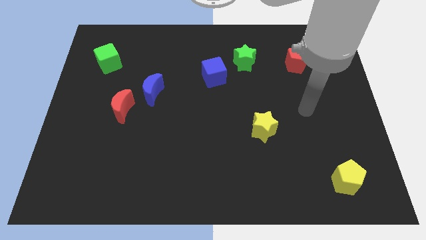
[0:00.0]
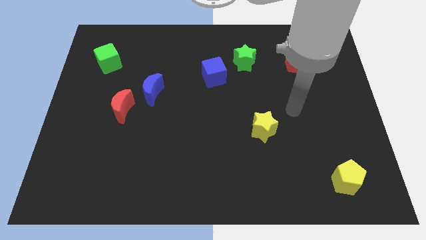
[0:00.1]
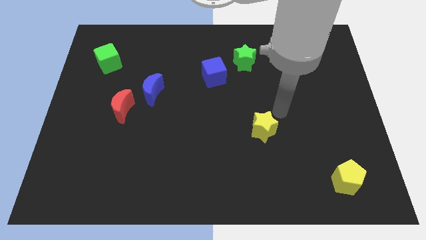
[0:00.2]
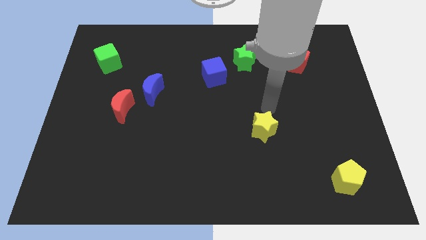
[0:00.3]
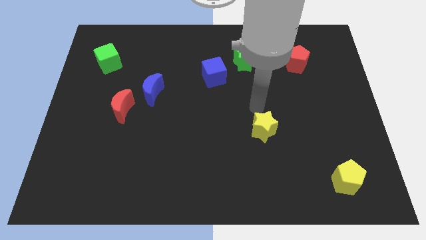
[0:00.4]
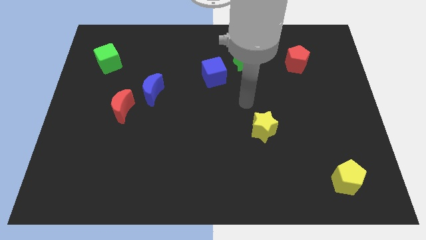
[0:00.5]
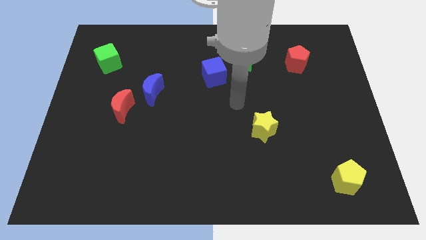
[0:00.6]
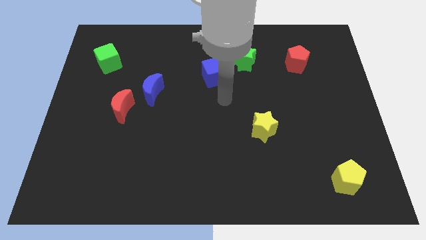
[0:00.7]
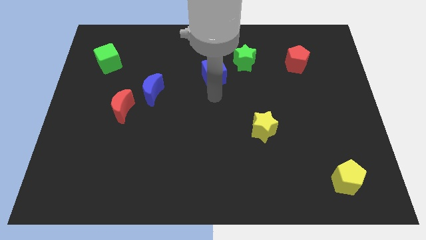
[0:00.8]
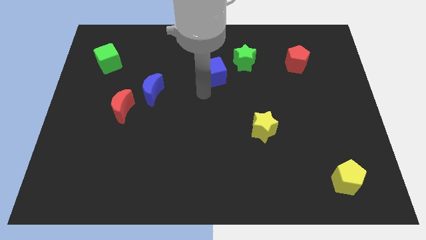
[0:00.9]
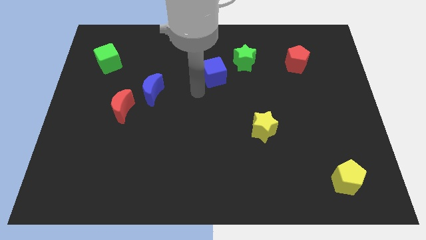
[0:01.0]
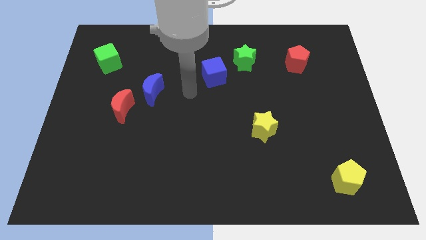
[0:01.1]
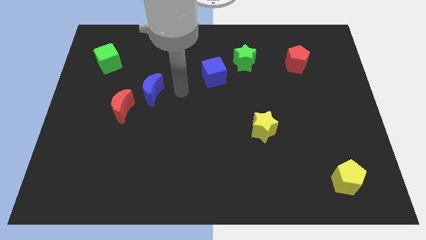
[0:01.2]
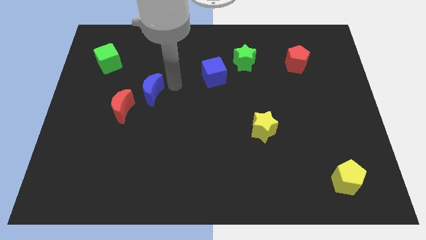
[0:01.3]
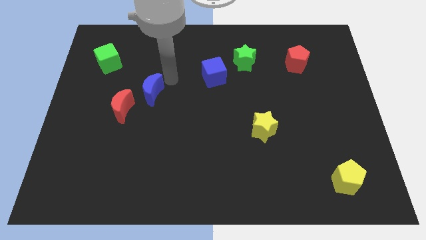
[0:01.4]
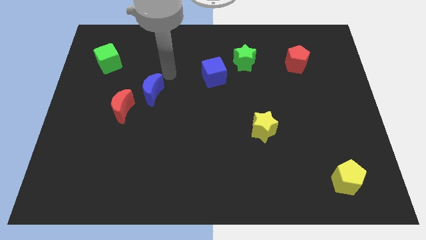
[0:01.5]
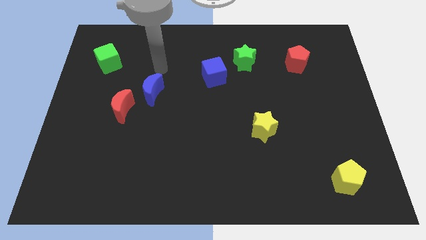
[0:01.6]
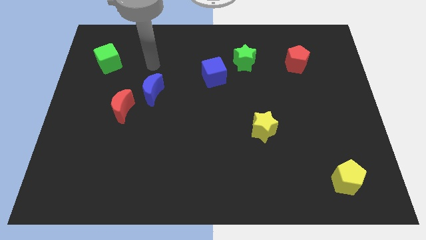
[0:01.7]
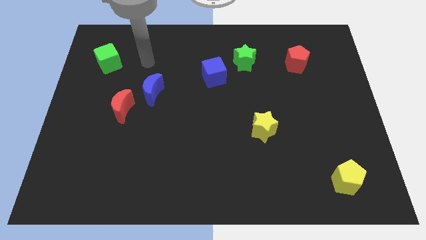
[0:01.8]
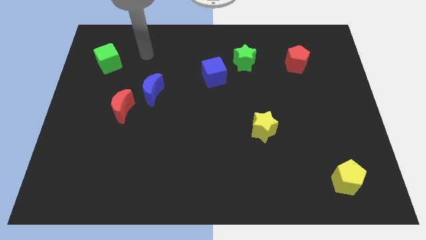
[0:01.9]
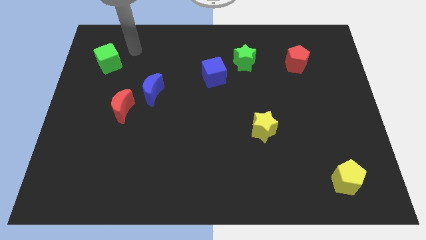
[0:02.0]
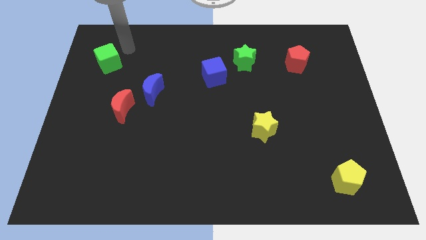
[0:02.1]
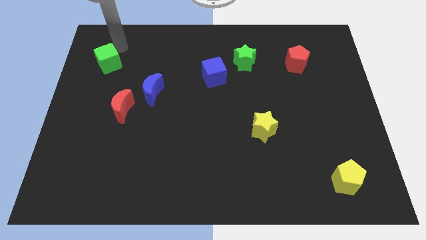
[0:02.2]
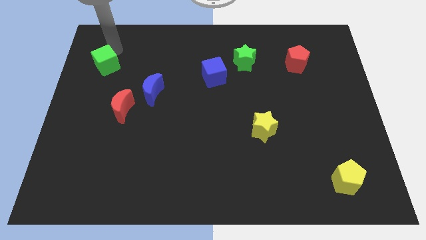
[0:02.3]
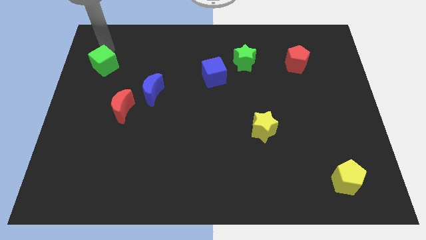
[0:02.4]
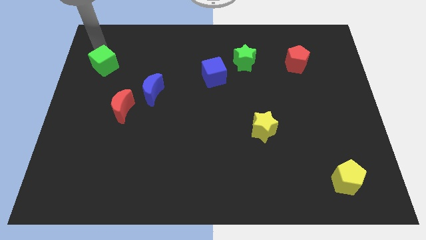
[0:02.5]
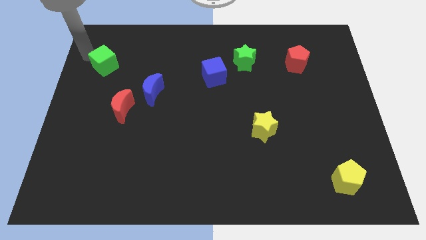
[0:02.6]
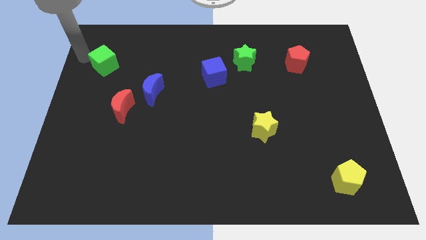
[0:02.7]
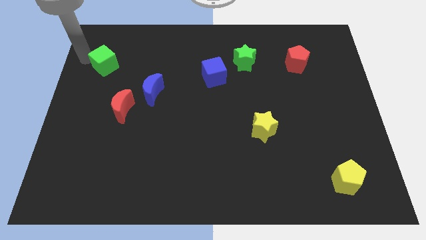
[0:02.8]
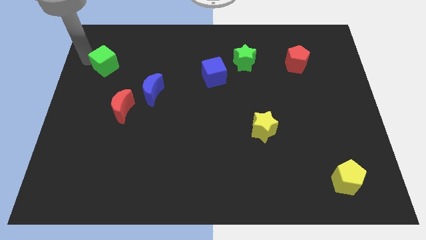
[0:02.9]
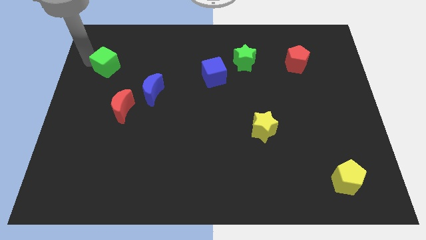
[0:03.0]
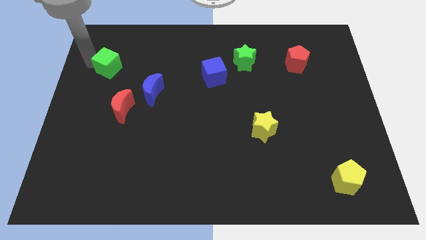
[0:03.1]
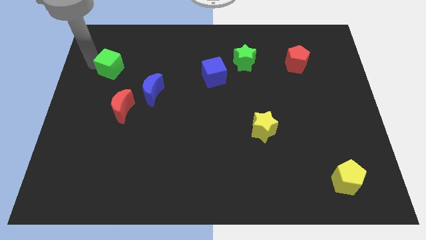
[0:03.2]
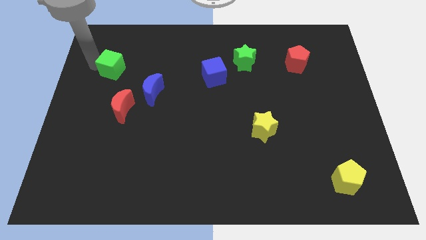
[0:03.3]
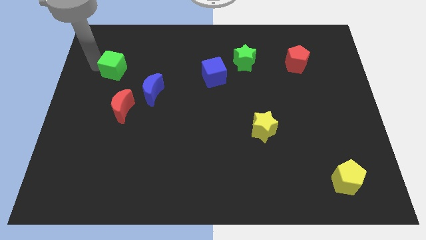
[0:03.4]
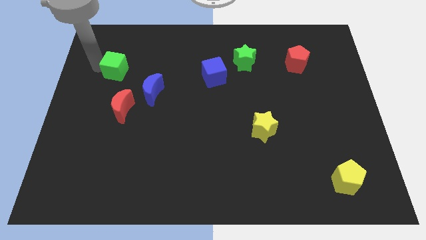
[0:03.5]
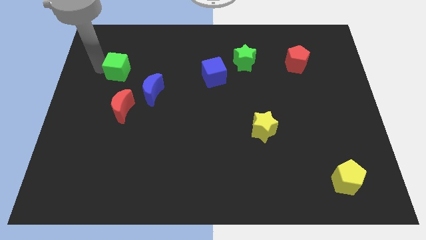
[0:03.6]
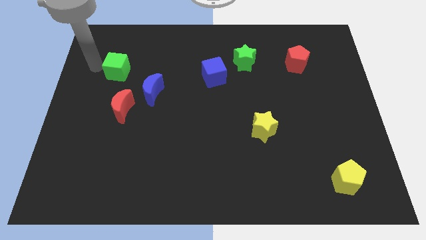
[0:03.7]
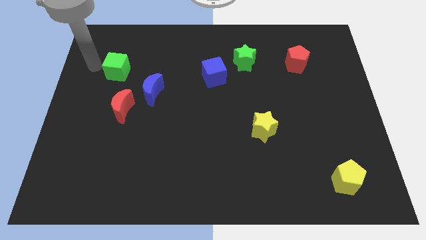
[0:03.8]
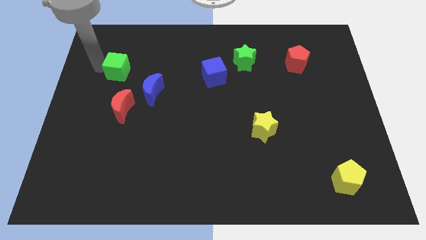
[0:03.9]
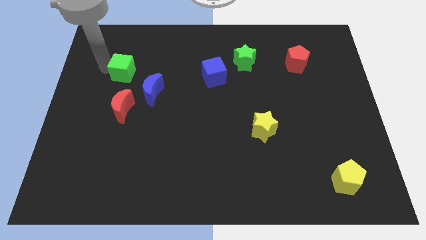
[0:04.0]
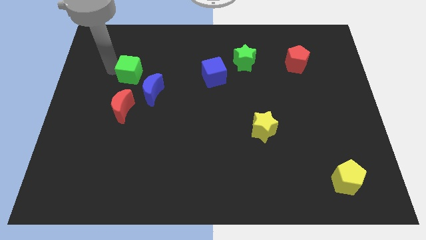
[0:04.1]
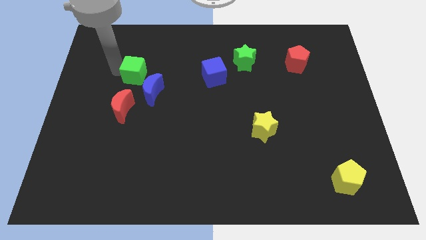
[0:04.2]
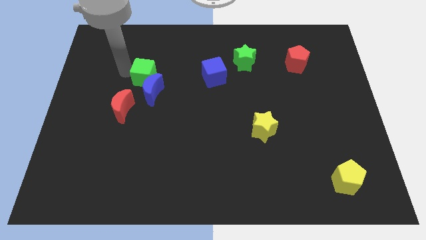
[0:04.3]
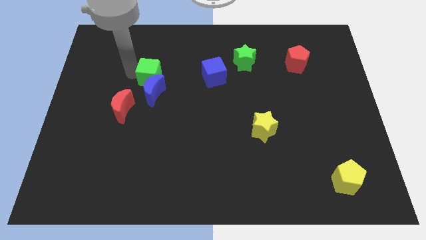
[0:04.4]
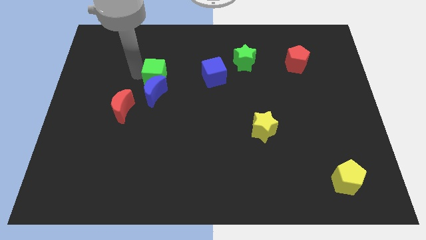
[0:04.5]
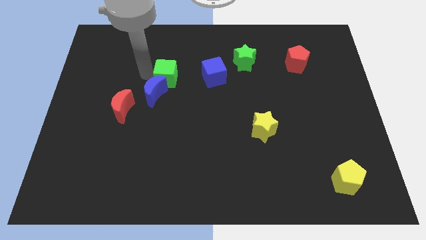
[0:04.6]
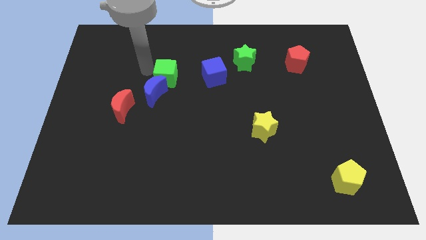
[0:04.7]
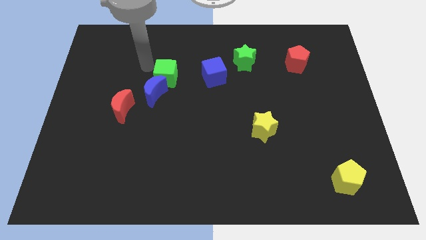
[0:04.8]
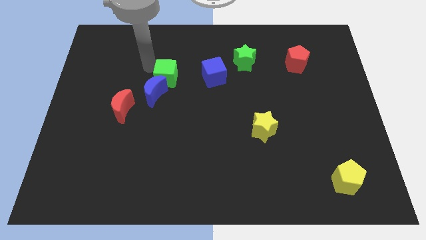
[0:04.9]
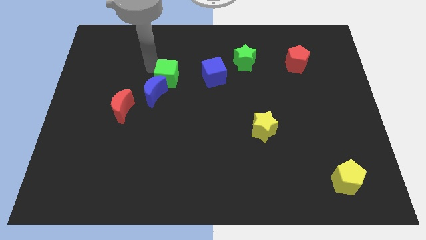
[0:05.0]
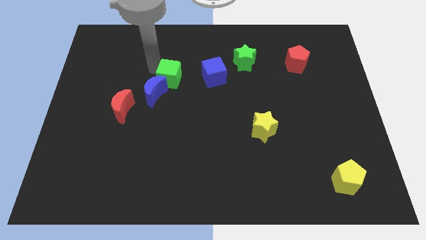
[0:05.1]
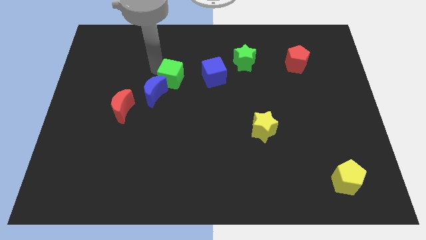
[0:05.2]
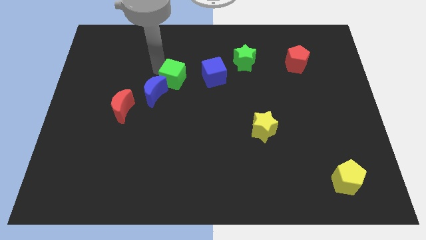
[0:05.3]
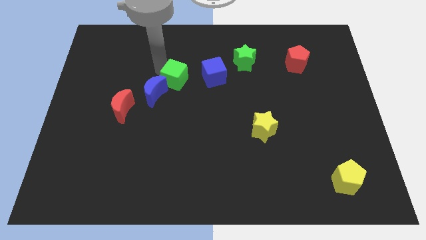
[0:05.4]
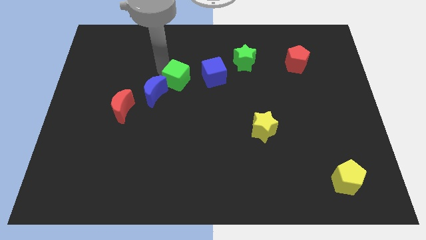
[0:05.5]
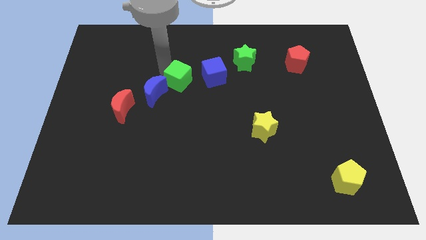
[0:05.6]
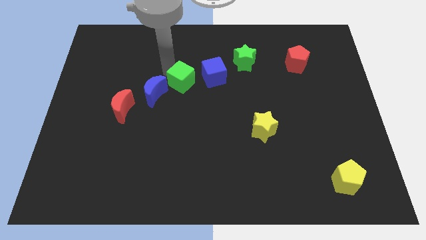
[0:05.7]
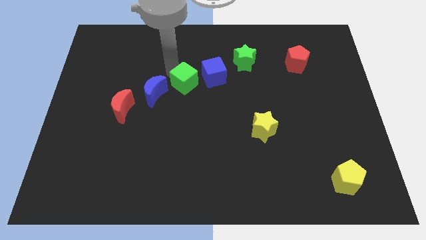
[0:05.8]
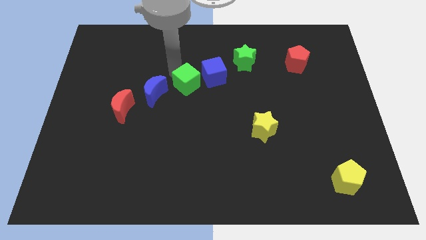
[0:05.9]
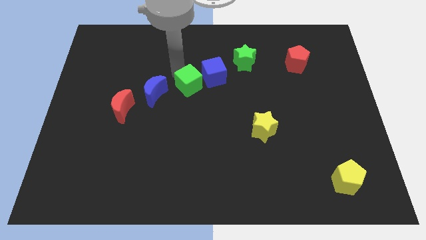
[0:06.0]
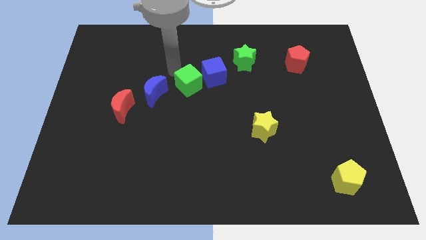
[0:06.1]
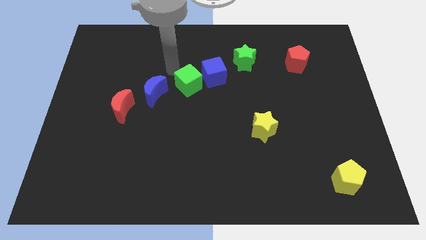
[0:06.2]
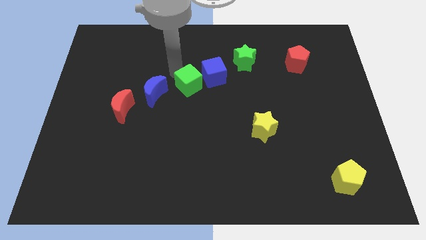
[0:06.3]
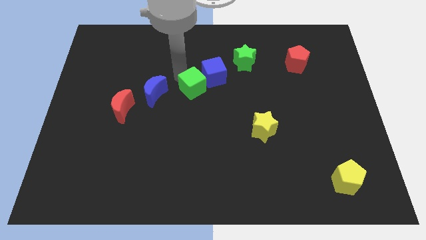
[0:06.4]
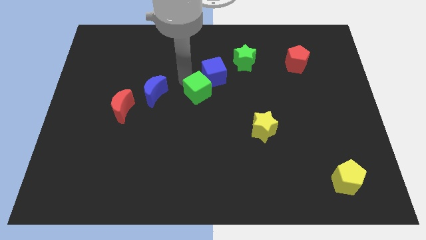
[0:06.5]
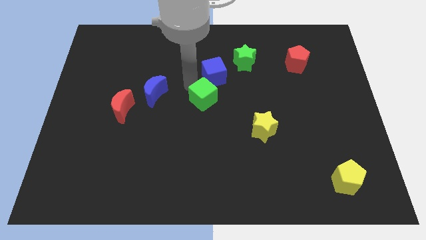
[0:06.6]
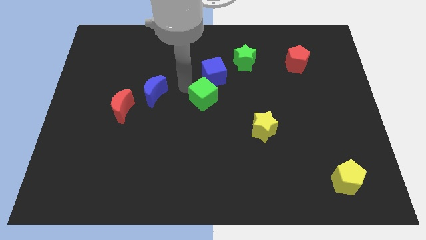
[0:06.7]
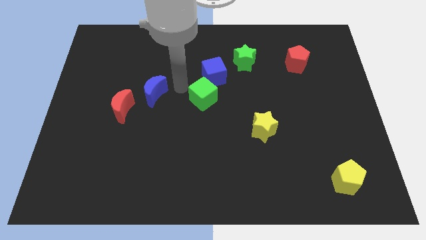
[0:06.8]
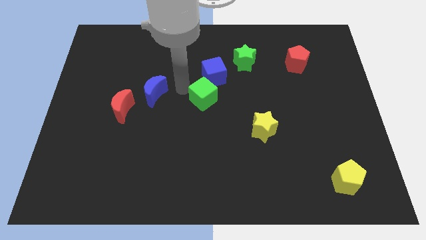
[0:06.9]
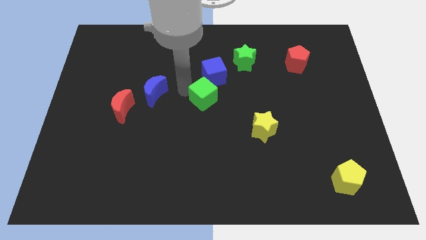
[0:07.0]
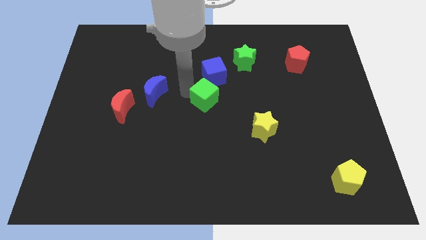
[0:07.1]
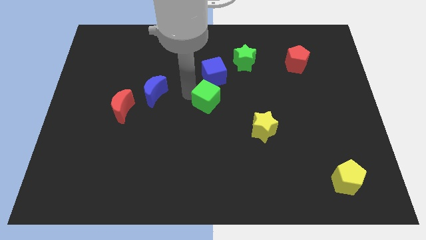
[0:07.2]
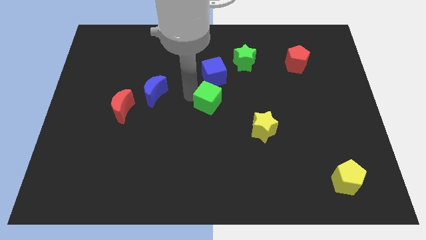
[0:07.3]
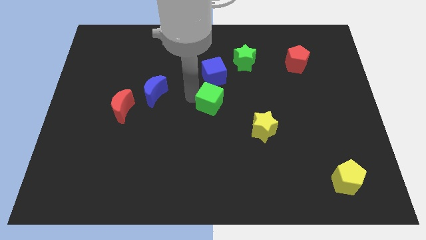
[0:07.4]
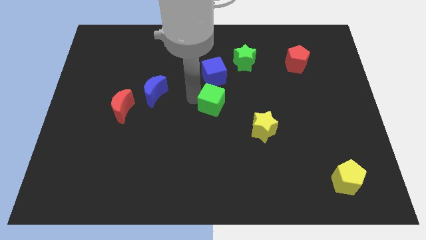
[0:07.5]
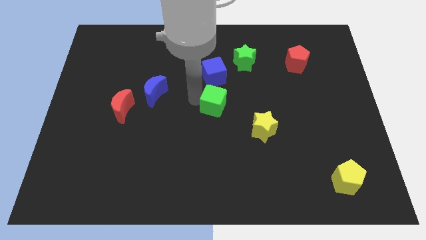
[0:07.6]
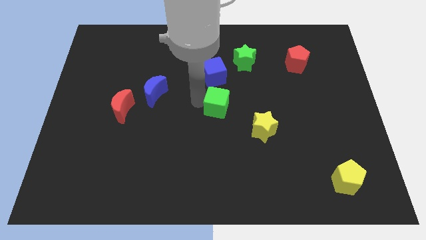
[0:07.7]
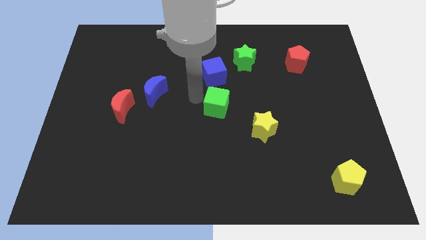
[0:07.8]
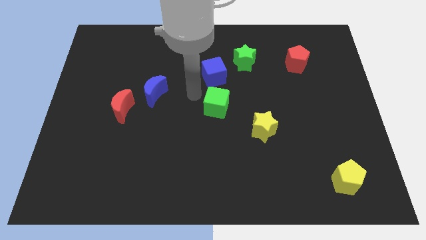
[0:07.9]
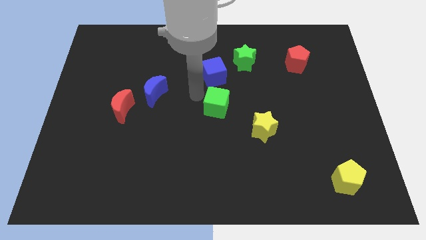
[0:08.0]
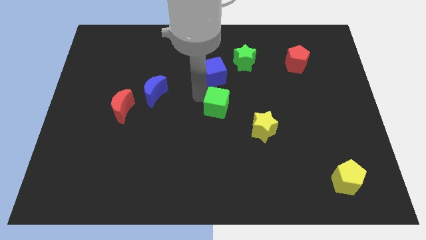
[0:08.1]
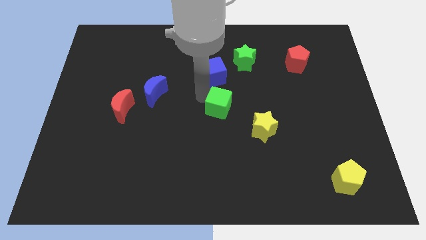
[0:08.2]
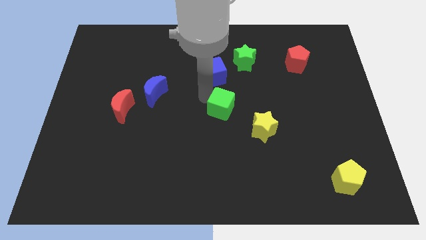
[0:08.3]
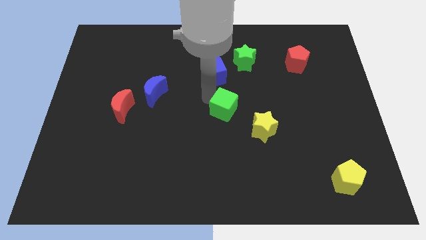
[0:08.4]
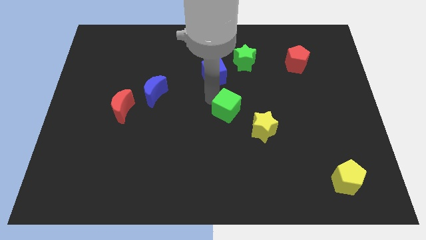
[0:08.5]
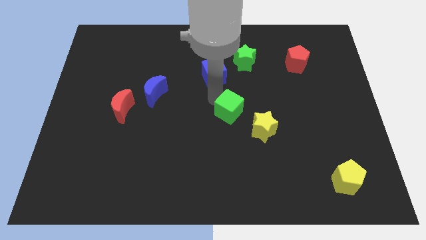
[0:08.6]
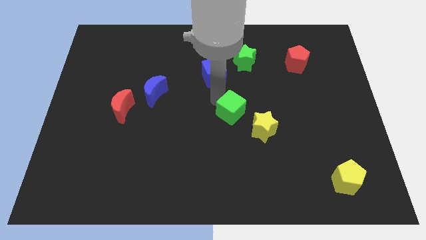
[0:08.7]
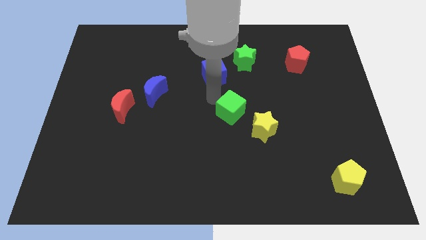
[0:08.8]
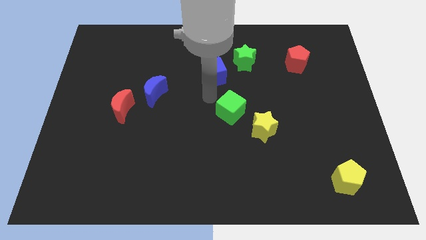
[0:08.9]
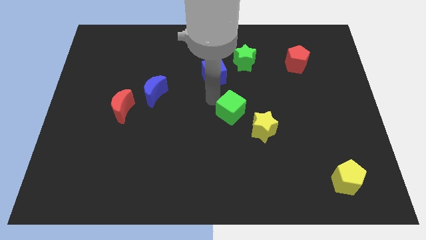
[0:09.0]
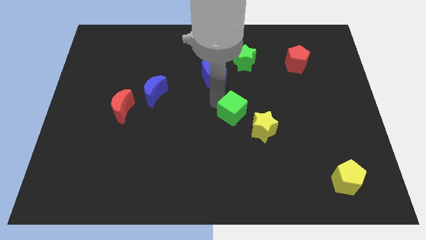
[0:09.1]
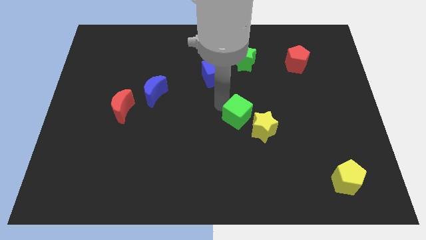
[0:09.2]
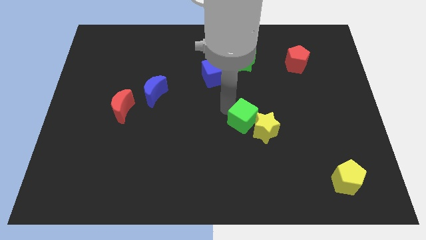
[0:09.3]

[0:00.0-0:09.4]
slide the green cube to the yellow star
